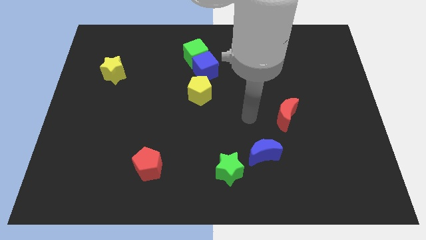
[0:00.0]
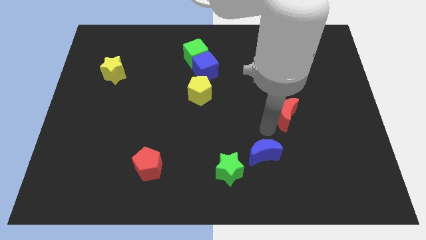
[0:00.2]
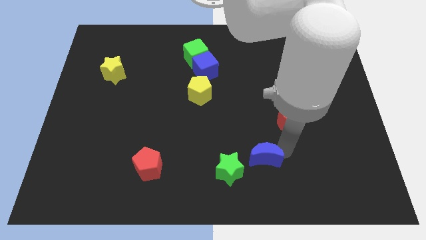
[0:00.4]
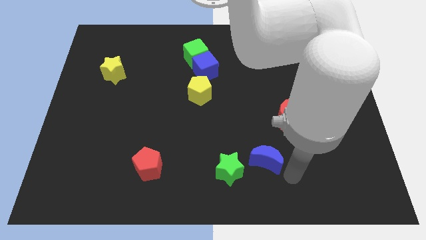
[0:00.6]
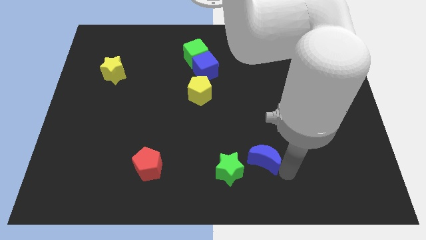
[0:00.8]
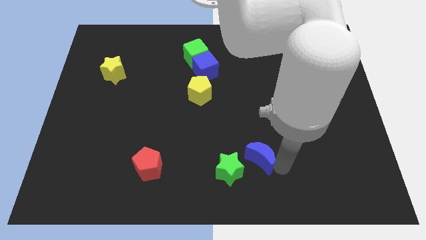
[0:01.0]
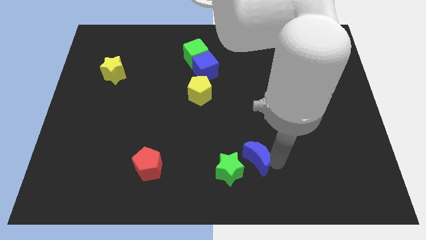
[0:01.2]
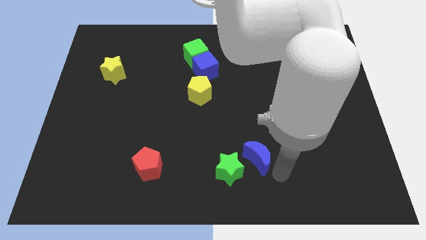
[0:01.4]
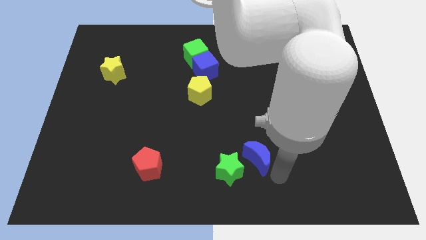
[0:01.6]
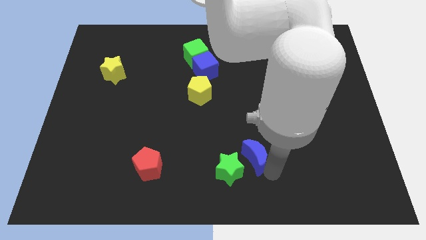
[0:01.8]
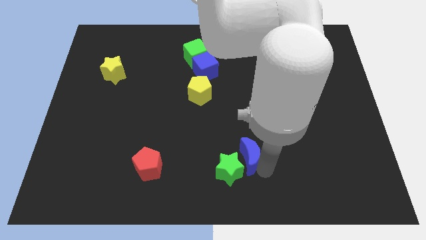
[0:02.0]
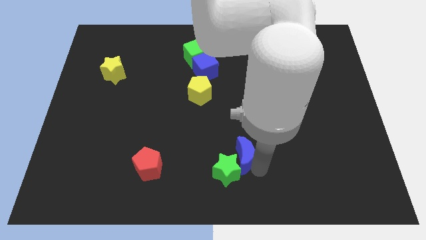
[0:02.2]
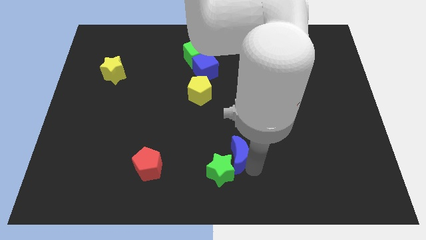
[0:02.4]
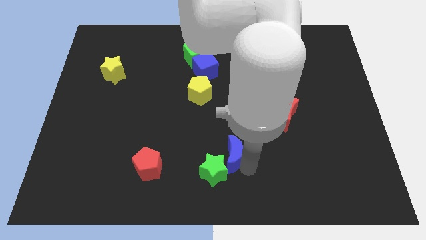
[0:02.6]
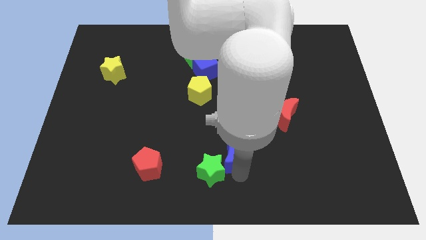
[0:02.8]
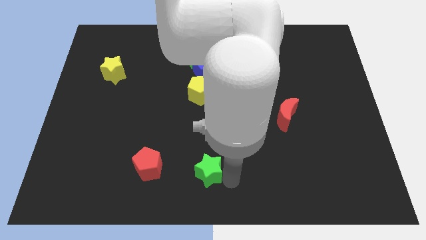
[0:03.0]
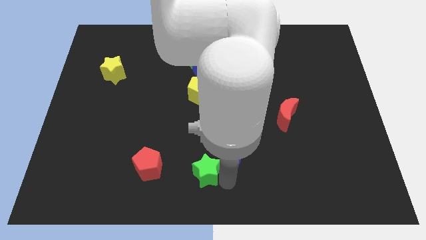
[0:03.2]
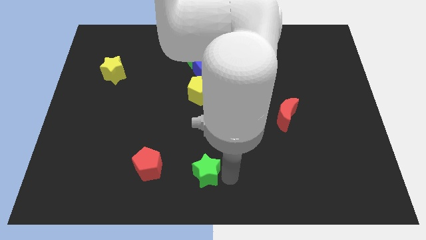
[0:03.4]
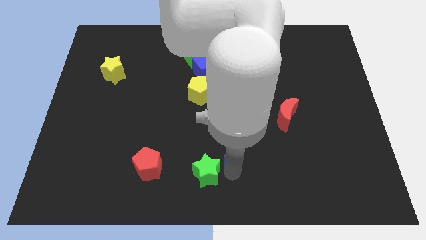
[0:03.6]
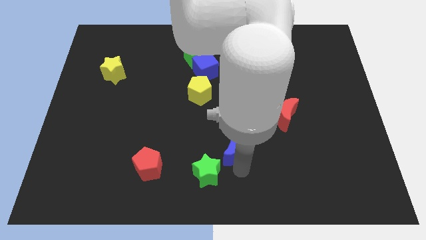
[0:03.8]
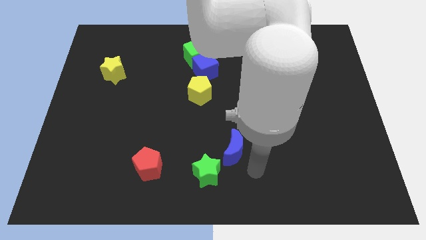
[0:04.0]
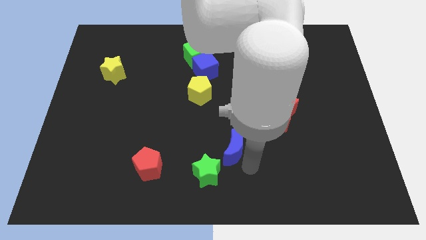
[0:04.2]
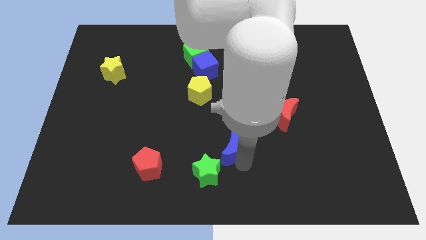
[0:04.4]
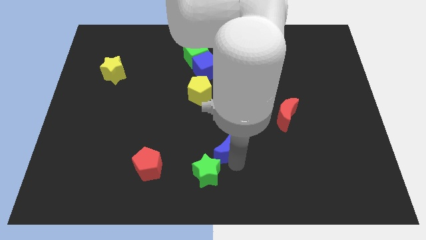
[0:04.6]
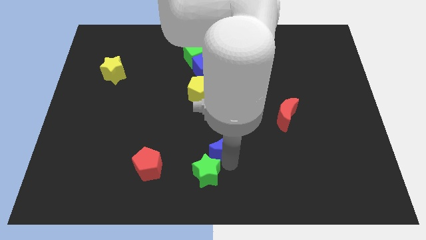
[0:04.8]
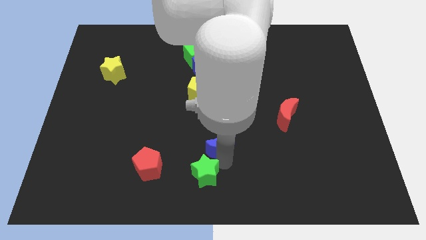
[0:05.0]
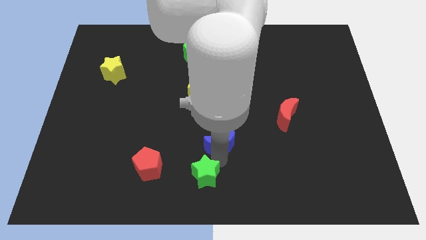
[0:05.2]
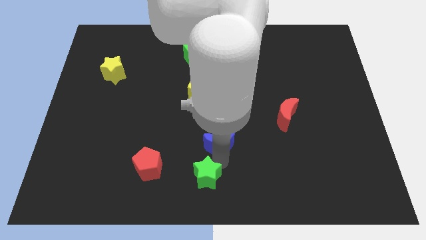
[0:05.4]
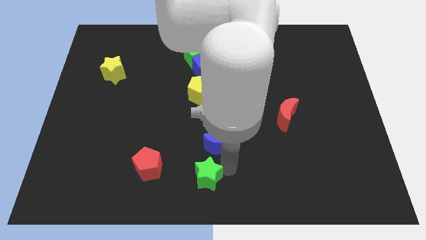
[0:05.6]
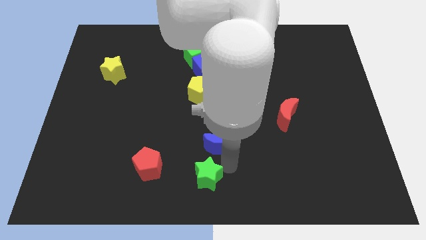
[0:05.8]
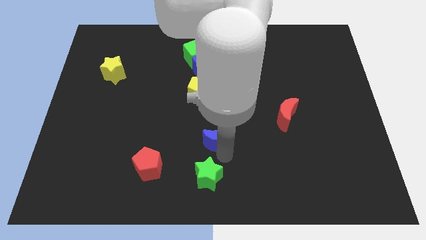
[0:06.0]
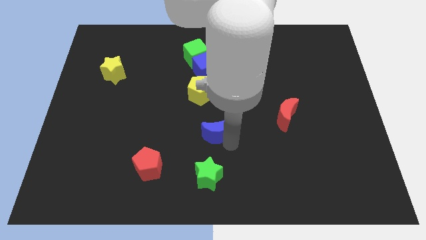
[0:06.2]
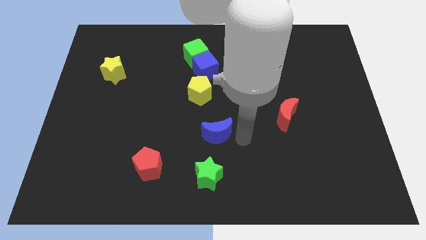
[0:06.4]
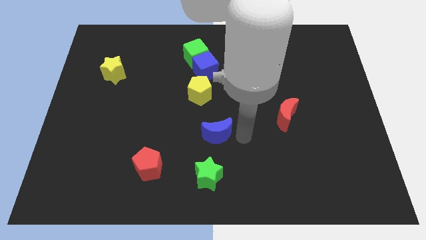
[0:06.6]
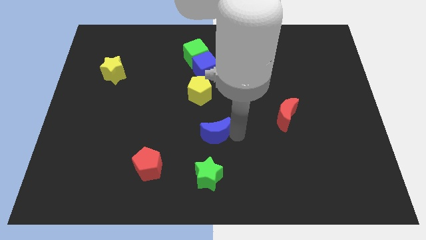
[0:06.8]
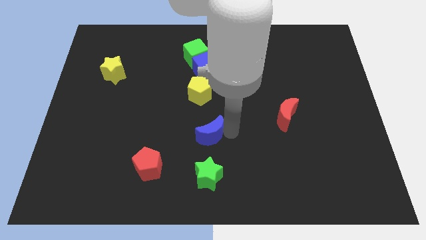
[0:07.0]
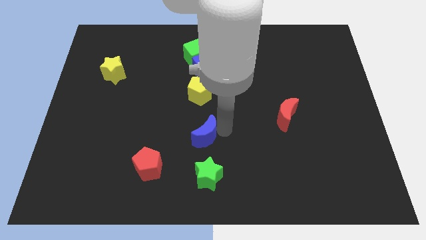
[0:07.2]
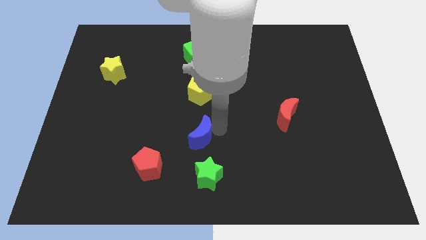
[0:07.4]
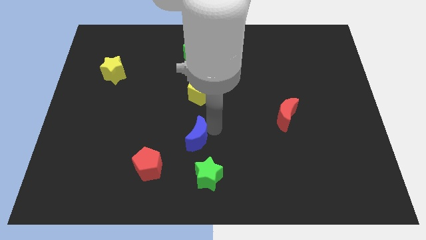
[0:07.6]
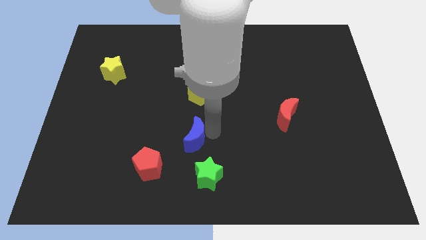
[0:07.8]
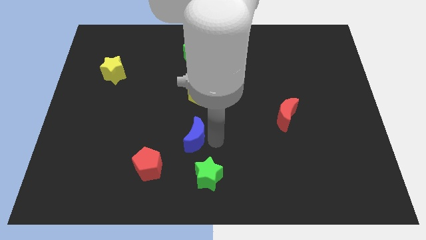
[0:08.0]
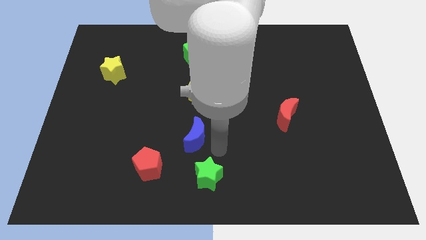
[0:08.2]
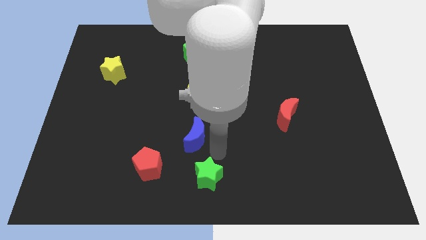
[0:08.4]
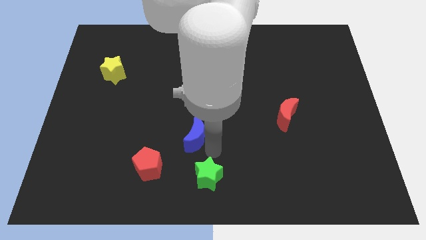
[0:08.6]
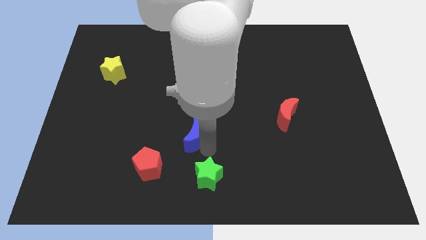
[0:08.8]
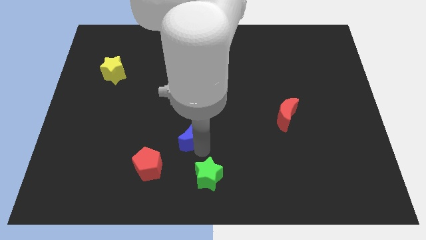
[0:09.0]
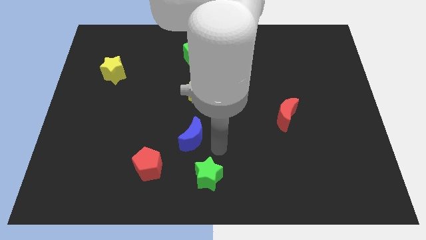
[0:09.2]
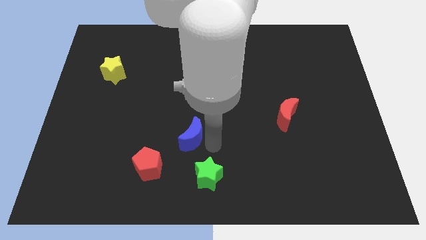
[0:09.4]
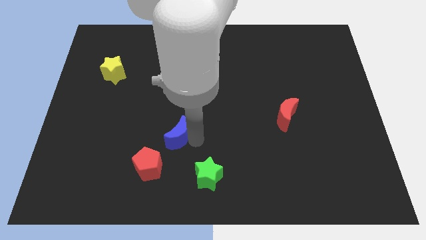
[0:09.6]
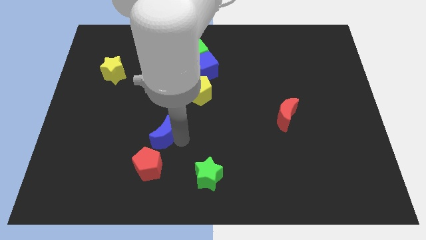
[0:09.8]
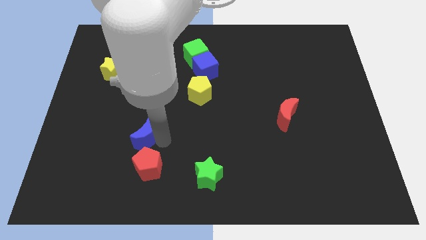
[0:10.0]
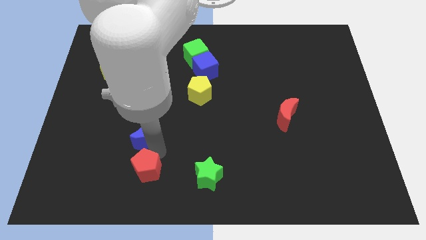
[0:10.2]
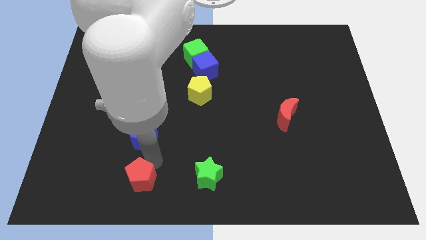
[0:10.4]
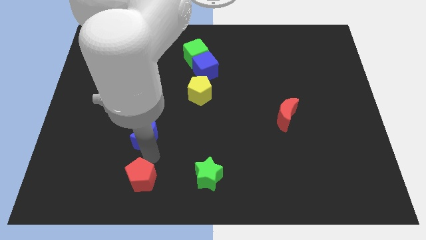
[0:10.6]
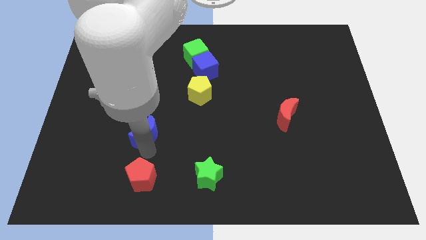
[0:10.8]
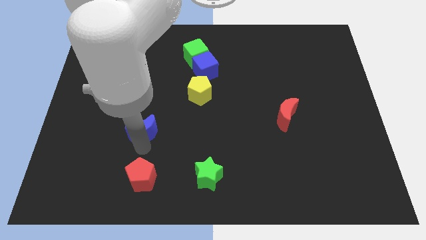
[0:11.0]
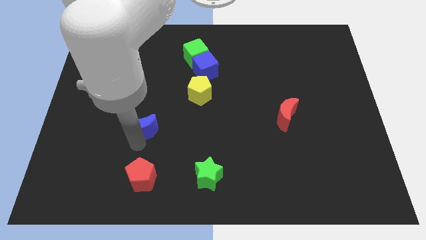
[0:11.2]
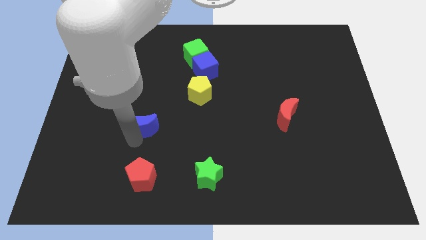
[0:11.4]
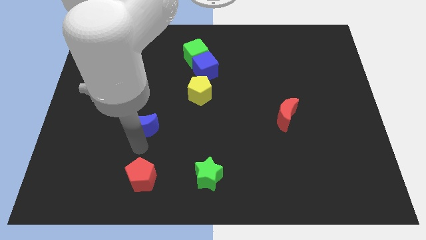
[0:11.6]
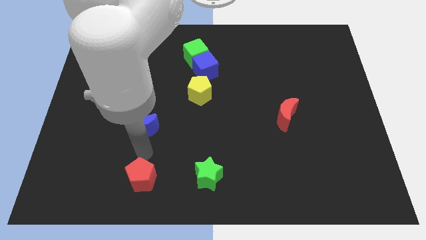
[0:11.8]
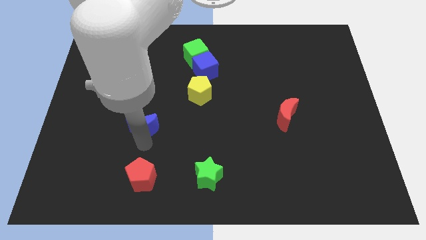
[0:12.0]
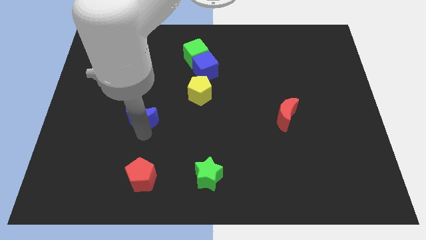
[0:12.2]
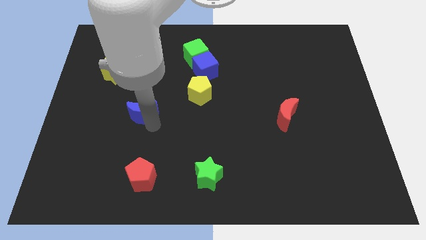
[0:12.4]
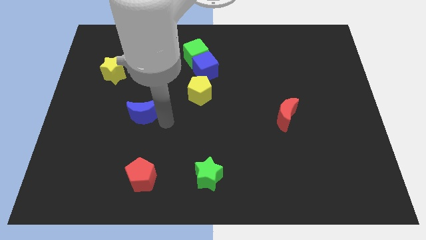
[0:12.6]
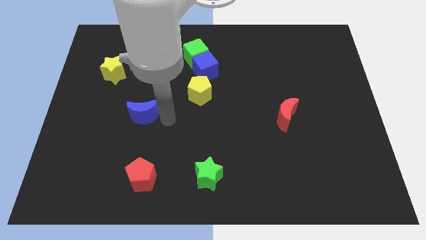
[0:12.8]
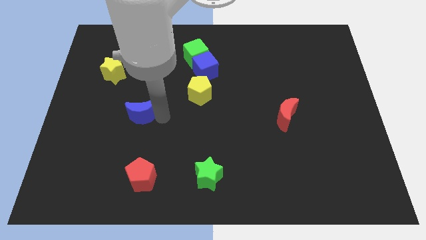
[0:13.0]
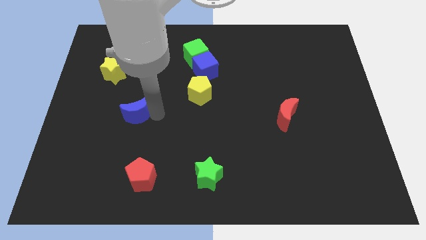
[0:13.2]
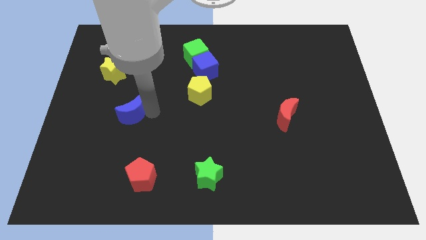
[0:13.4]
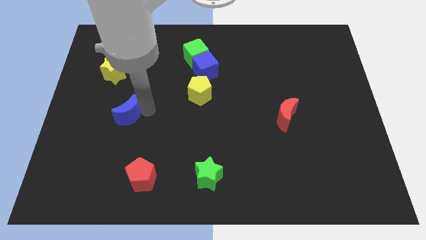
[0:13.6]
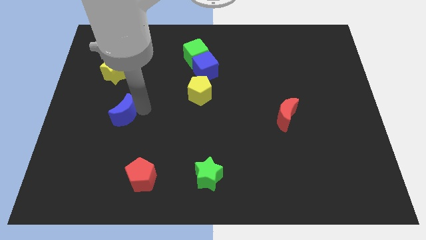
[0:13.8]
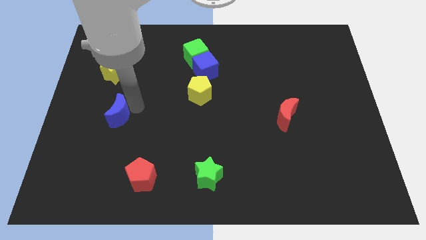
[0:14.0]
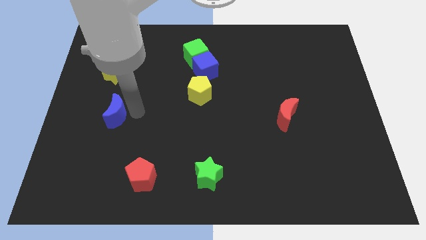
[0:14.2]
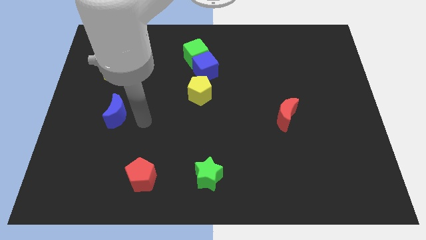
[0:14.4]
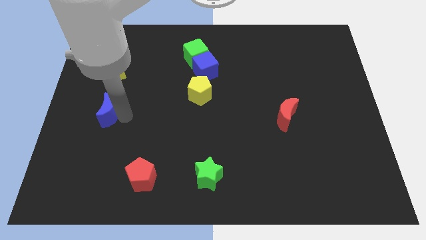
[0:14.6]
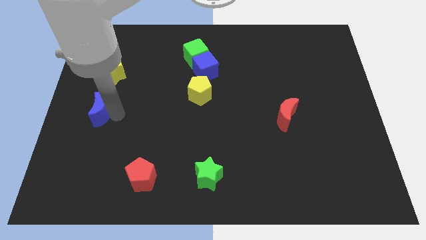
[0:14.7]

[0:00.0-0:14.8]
push the blue moon to the center left
